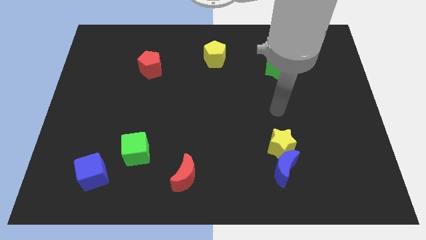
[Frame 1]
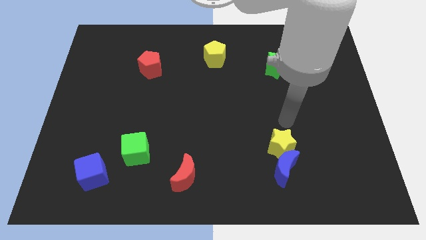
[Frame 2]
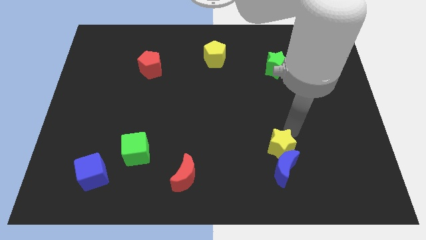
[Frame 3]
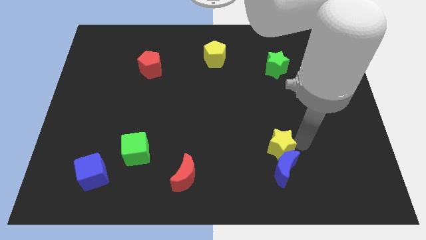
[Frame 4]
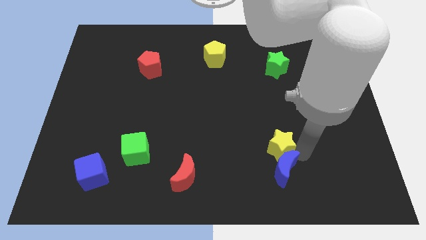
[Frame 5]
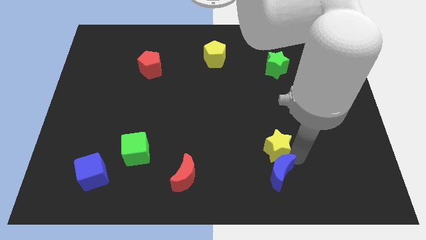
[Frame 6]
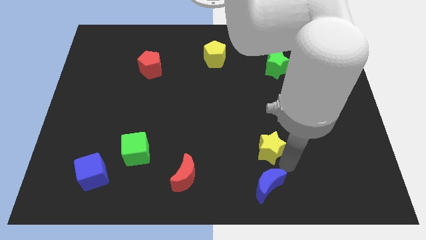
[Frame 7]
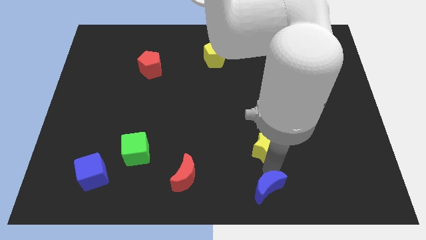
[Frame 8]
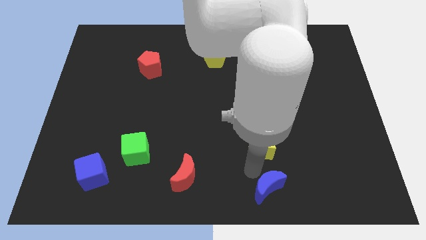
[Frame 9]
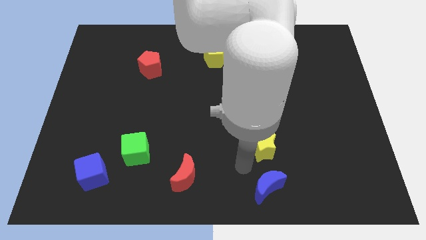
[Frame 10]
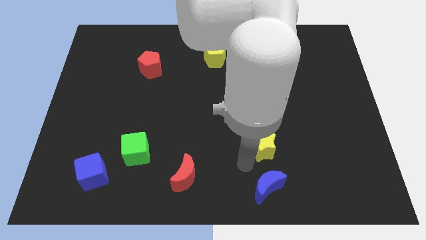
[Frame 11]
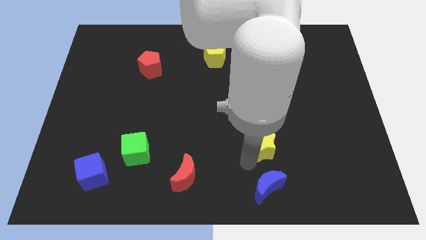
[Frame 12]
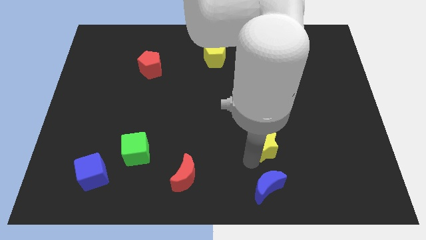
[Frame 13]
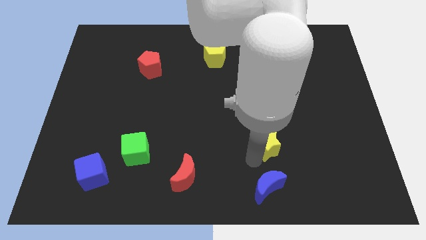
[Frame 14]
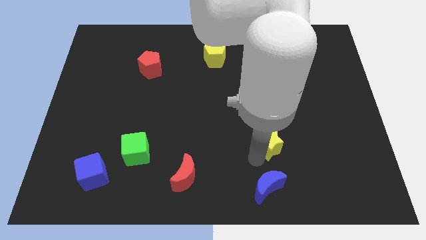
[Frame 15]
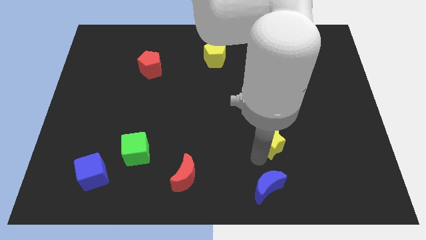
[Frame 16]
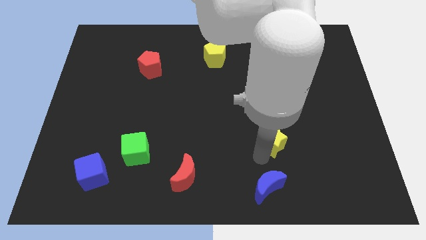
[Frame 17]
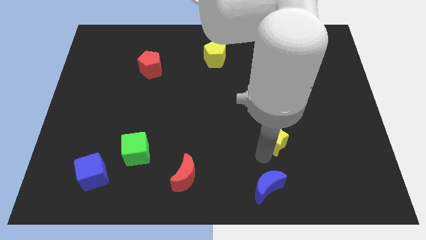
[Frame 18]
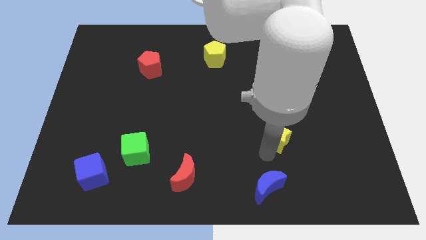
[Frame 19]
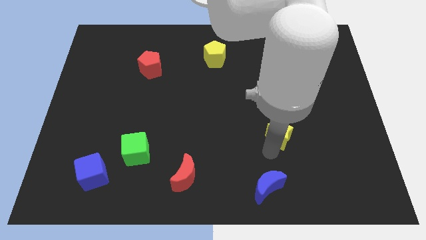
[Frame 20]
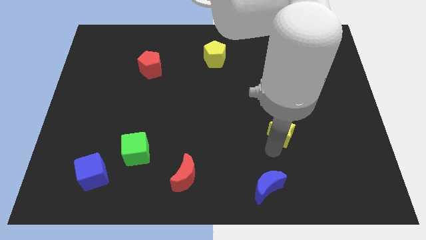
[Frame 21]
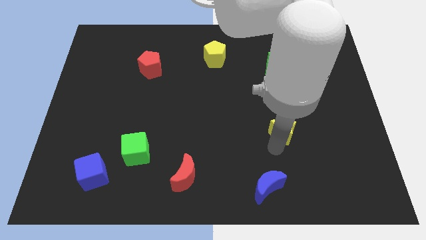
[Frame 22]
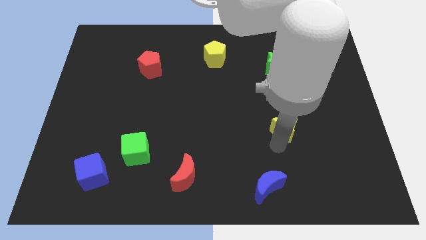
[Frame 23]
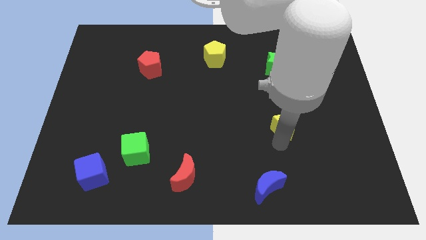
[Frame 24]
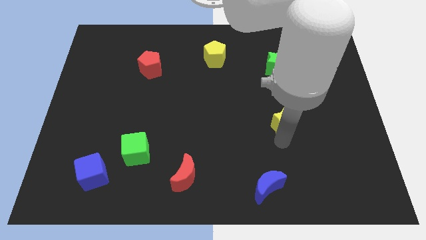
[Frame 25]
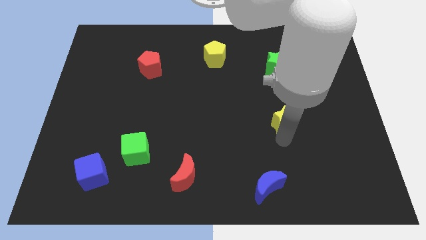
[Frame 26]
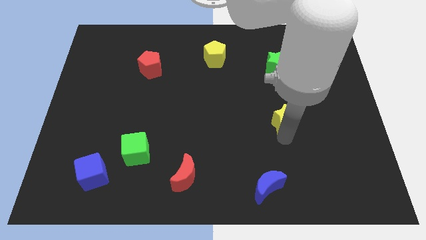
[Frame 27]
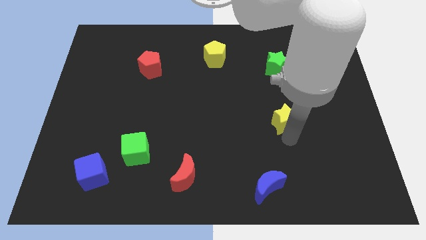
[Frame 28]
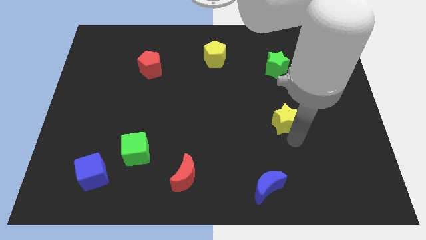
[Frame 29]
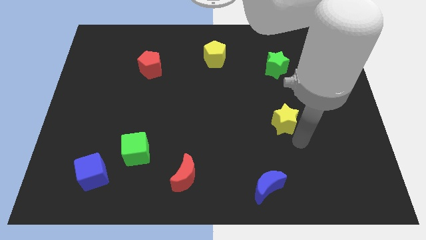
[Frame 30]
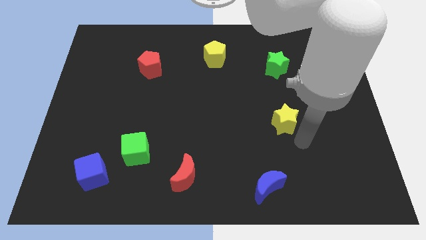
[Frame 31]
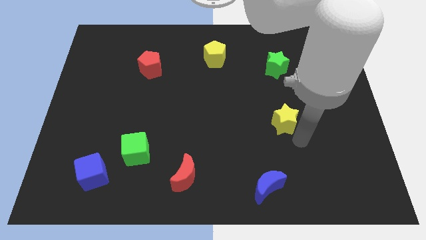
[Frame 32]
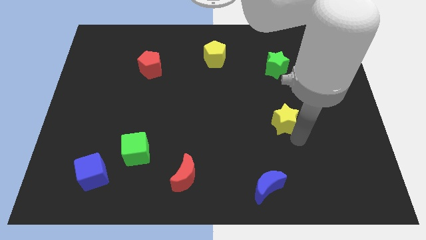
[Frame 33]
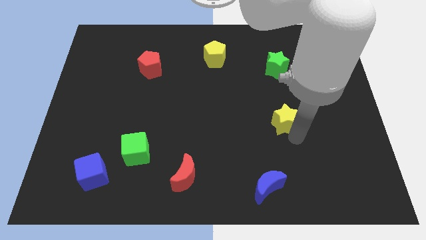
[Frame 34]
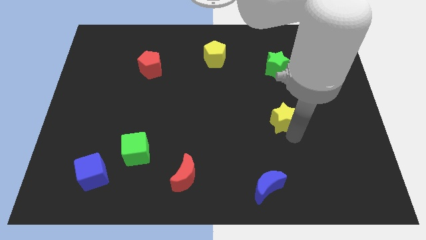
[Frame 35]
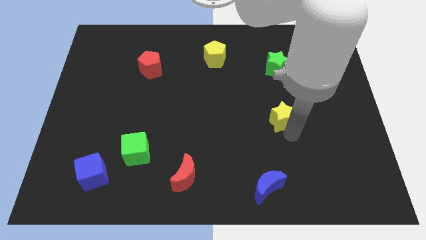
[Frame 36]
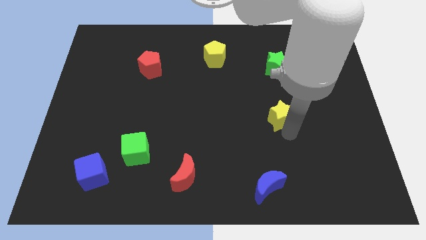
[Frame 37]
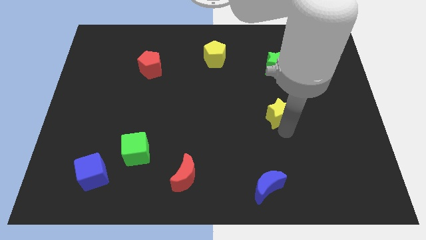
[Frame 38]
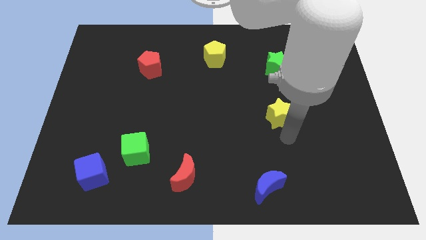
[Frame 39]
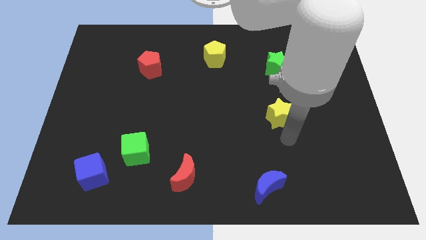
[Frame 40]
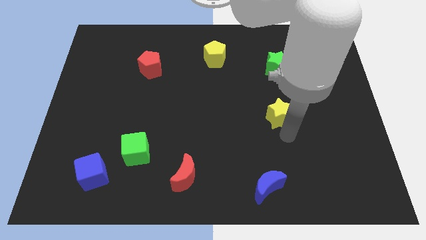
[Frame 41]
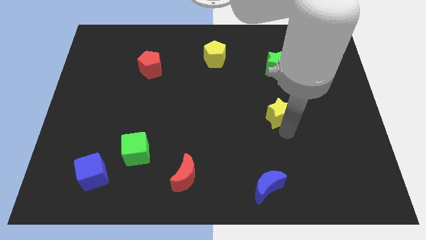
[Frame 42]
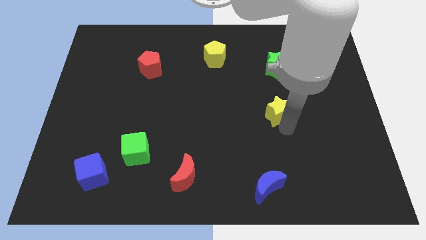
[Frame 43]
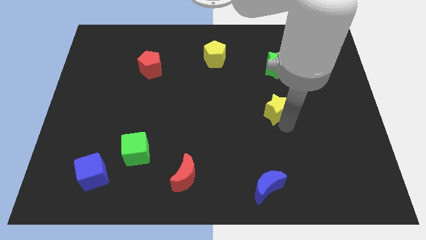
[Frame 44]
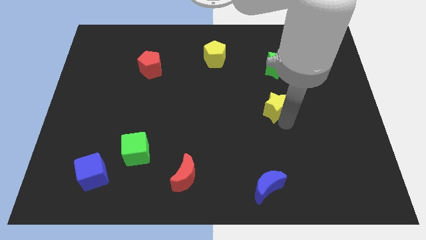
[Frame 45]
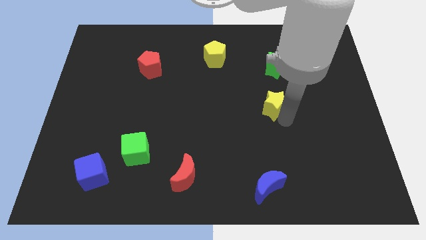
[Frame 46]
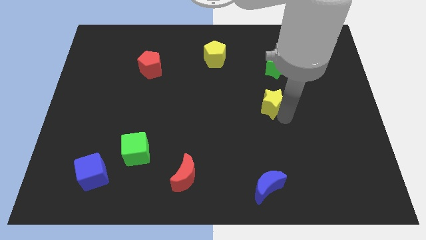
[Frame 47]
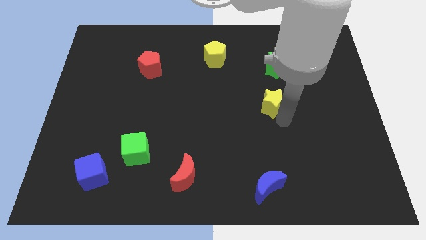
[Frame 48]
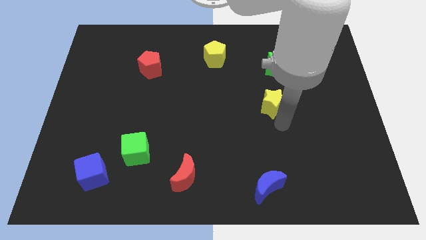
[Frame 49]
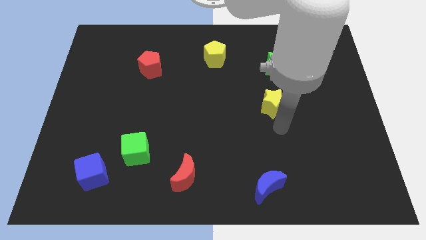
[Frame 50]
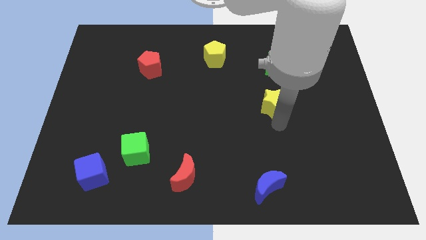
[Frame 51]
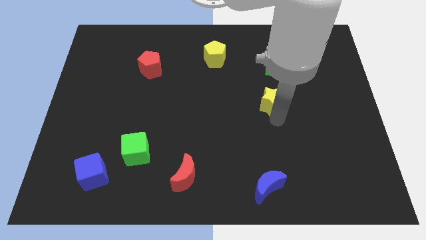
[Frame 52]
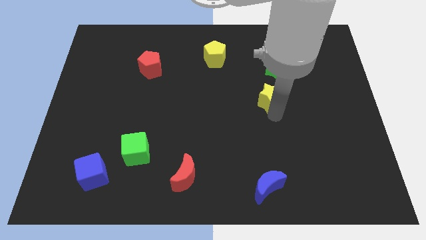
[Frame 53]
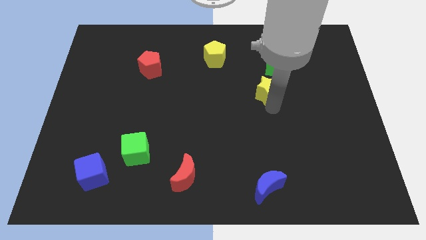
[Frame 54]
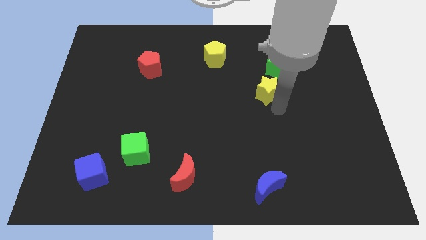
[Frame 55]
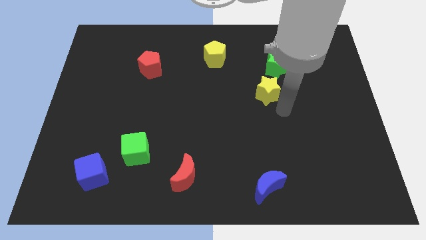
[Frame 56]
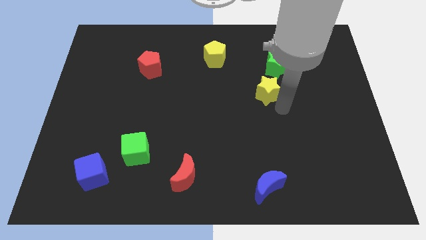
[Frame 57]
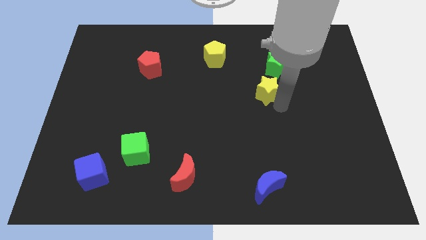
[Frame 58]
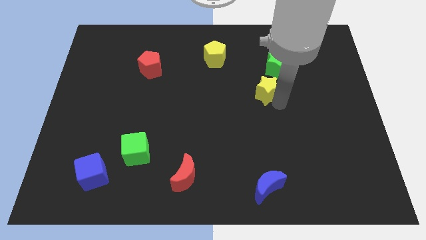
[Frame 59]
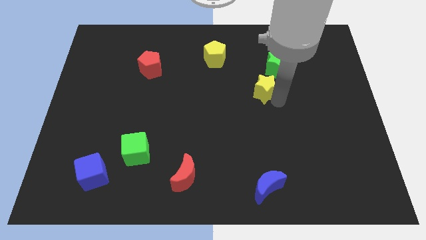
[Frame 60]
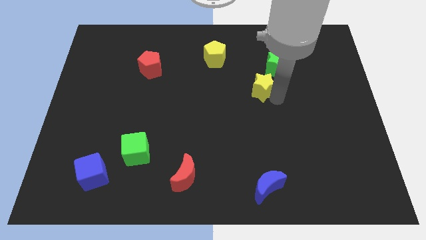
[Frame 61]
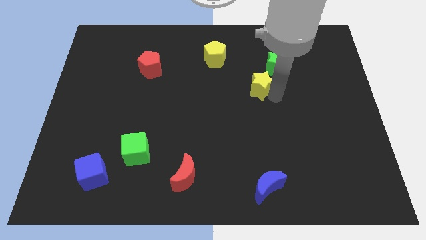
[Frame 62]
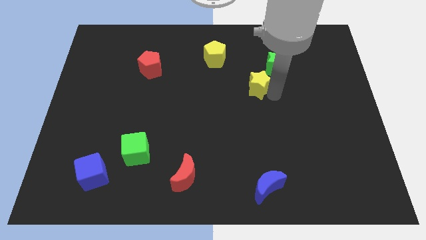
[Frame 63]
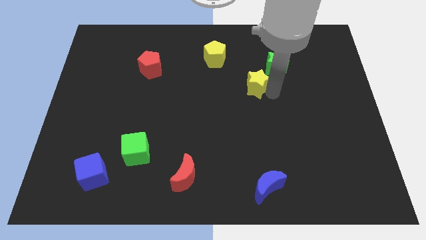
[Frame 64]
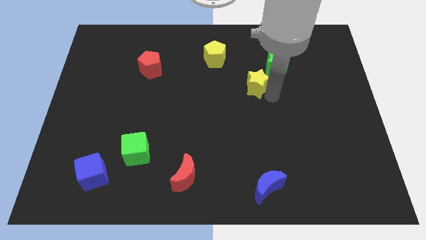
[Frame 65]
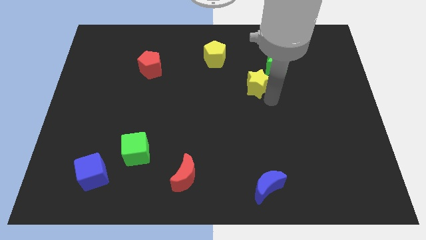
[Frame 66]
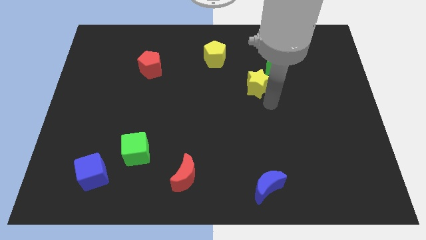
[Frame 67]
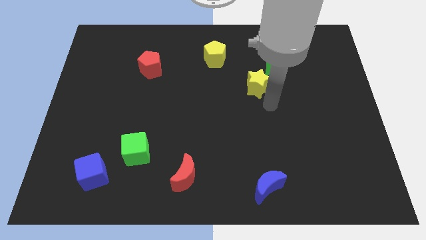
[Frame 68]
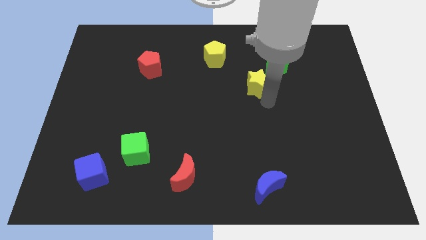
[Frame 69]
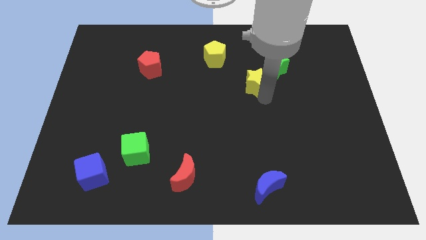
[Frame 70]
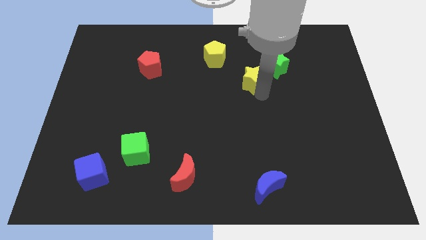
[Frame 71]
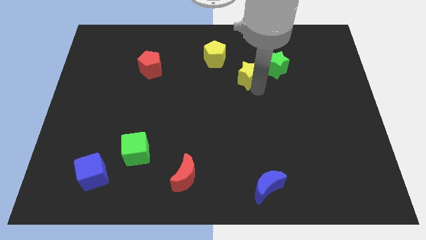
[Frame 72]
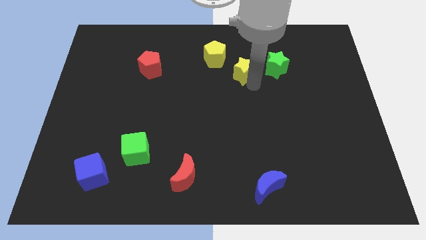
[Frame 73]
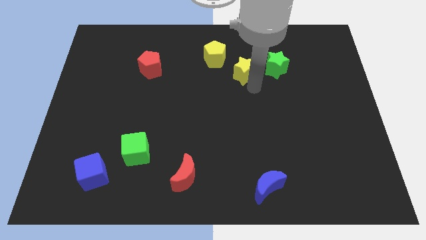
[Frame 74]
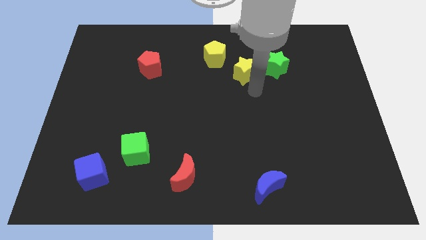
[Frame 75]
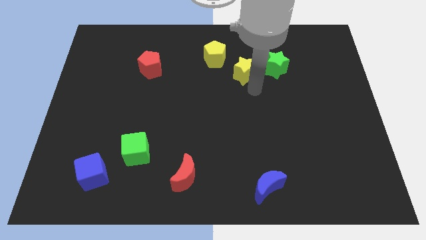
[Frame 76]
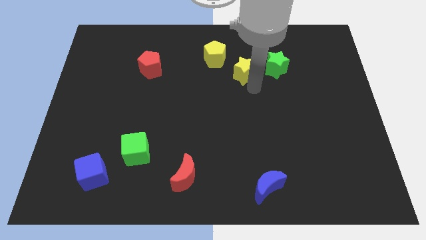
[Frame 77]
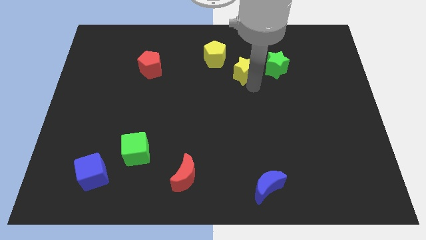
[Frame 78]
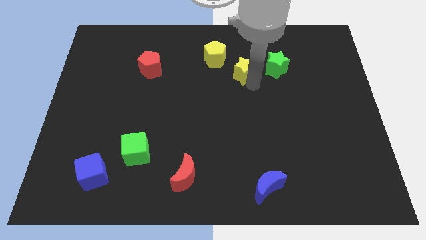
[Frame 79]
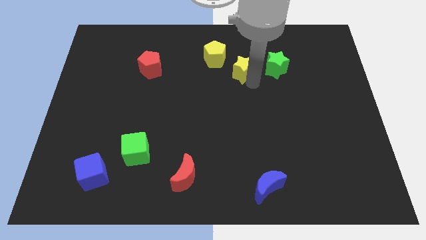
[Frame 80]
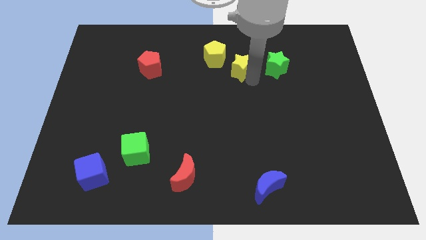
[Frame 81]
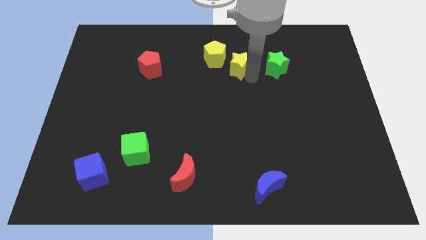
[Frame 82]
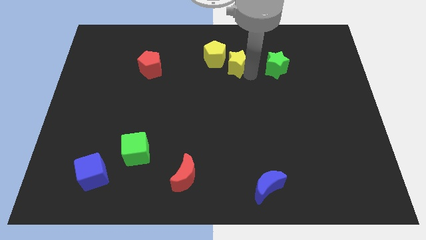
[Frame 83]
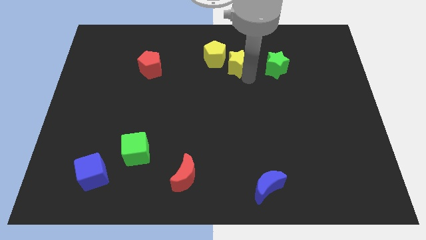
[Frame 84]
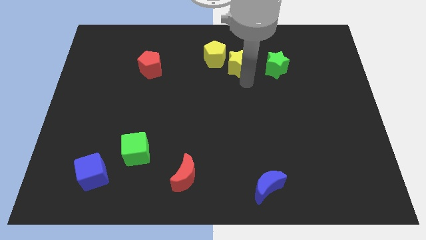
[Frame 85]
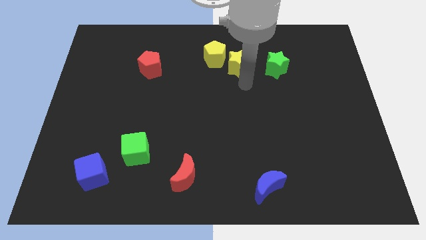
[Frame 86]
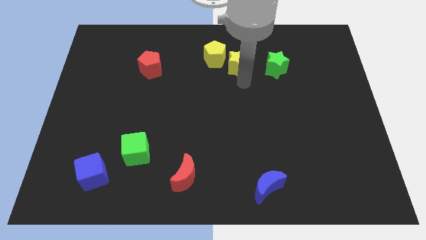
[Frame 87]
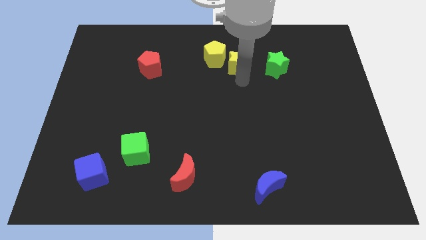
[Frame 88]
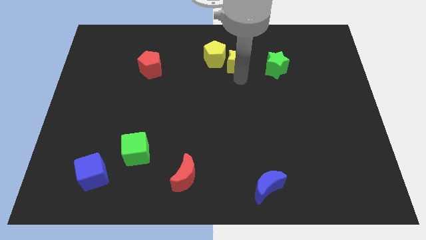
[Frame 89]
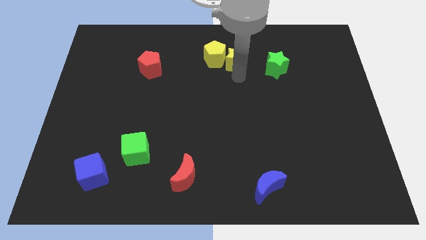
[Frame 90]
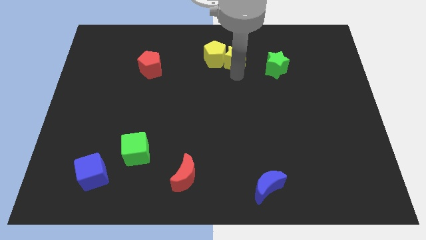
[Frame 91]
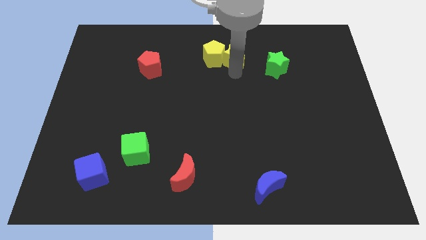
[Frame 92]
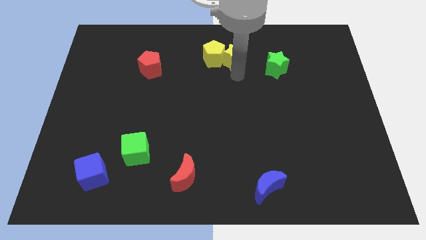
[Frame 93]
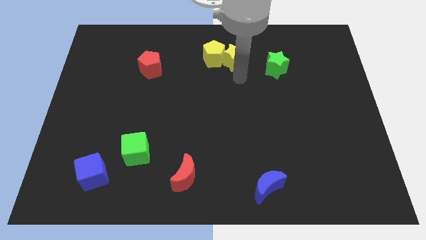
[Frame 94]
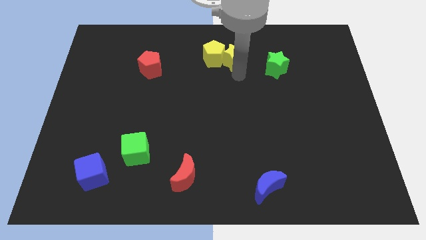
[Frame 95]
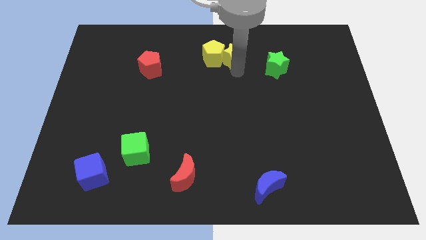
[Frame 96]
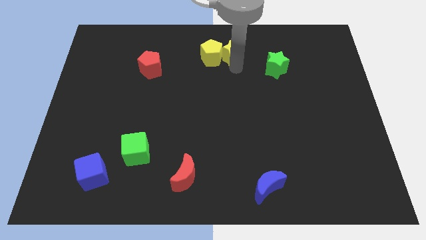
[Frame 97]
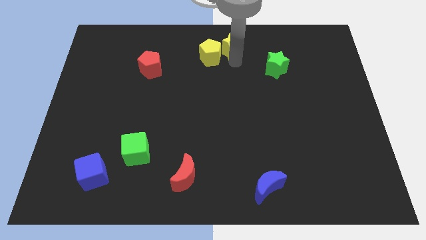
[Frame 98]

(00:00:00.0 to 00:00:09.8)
put the yellow star to the top
